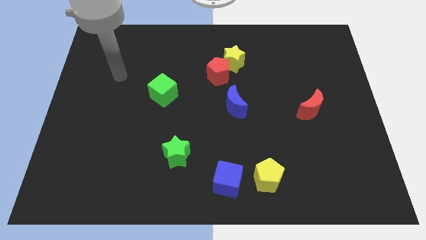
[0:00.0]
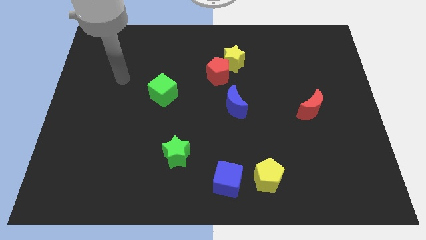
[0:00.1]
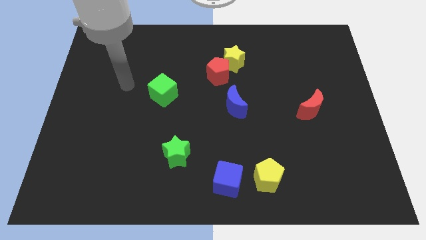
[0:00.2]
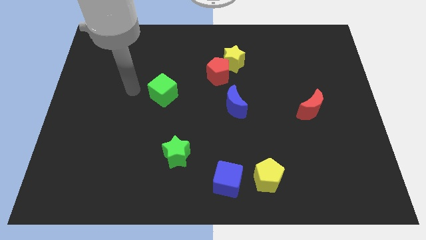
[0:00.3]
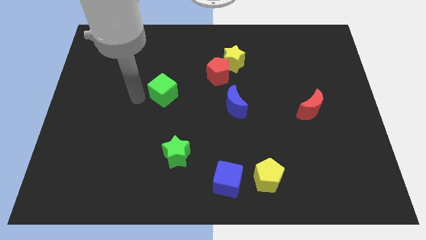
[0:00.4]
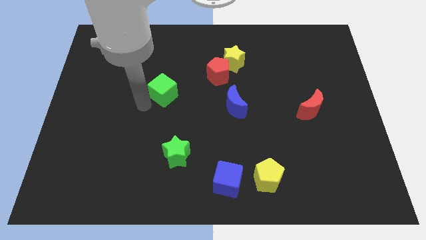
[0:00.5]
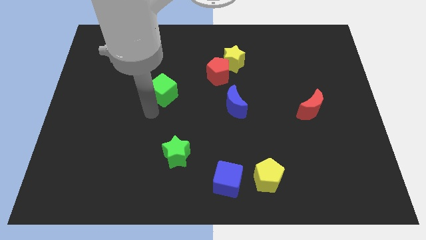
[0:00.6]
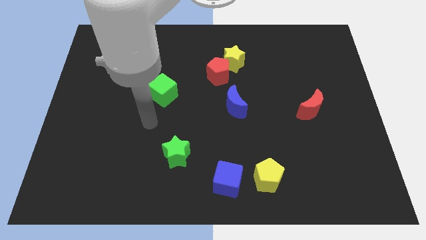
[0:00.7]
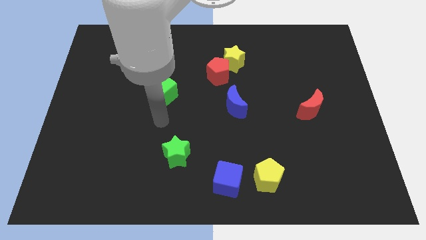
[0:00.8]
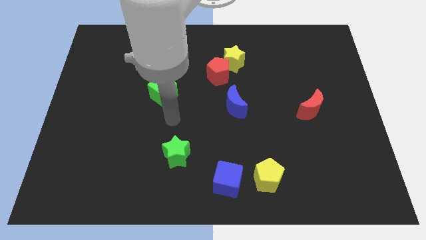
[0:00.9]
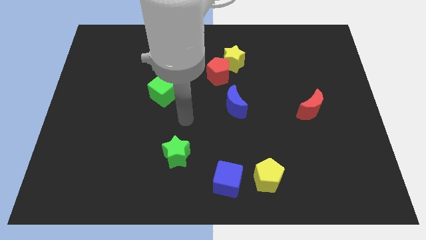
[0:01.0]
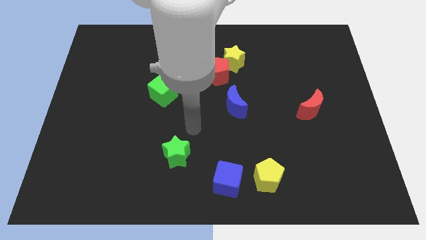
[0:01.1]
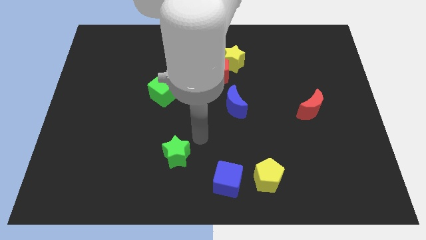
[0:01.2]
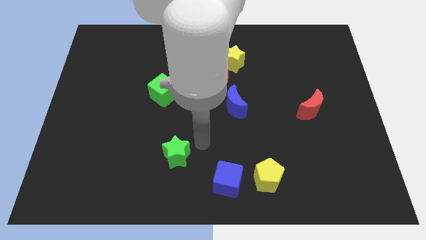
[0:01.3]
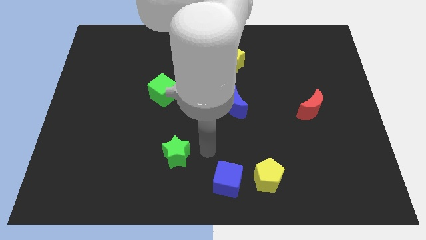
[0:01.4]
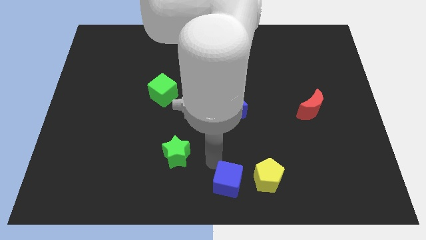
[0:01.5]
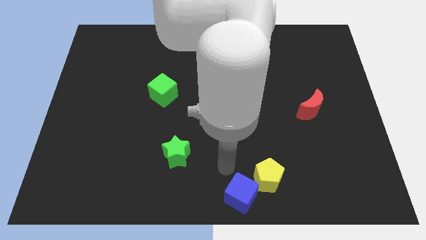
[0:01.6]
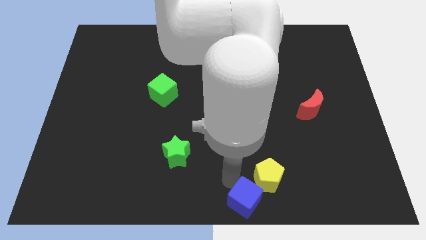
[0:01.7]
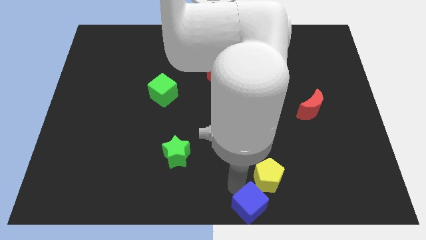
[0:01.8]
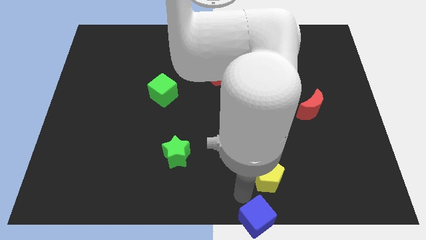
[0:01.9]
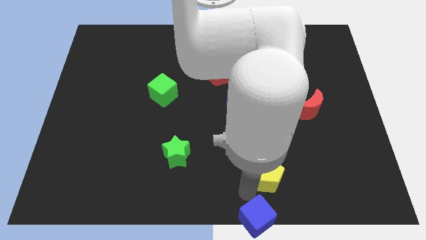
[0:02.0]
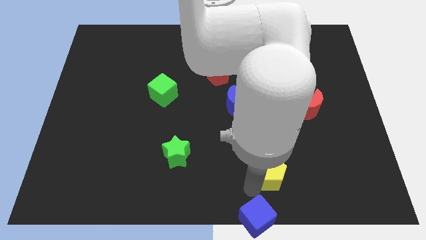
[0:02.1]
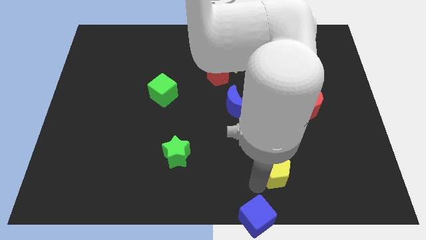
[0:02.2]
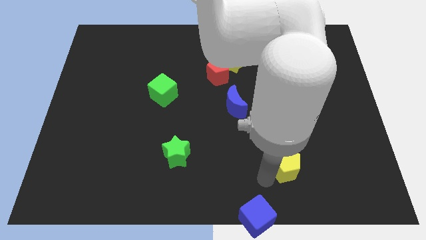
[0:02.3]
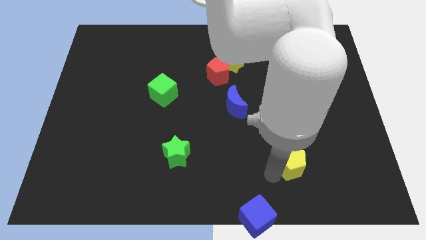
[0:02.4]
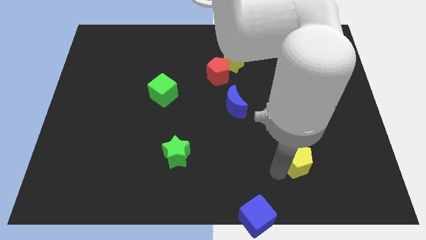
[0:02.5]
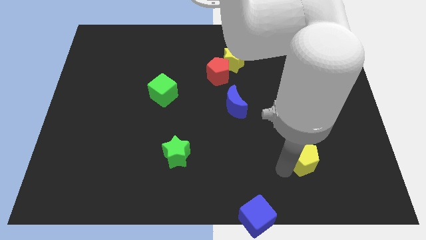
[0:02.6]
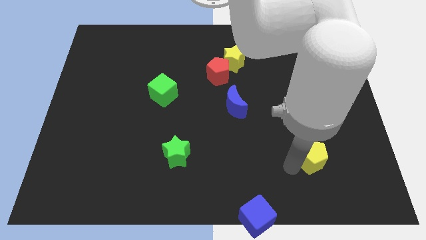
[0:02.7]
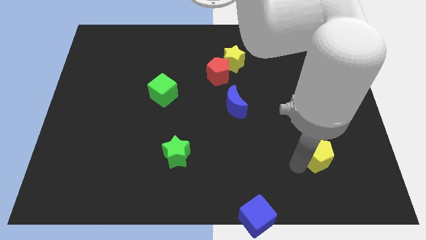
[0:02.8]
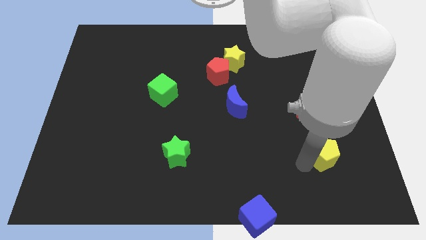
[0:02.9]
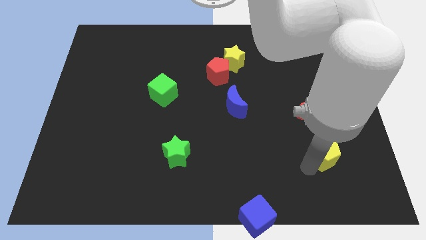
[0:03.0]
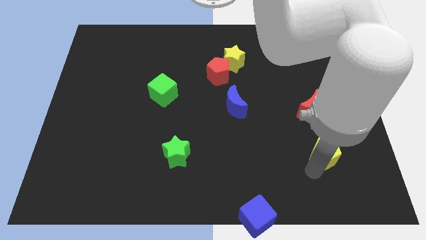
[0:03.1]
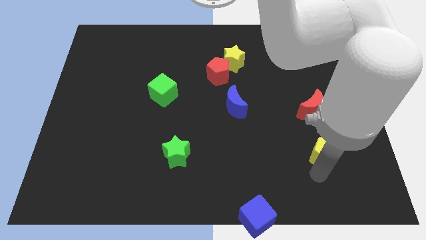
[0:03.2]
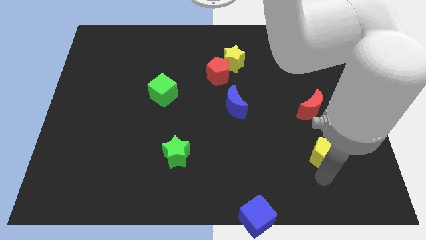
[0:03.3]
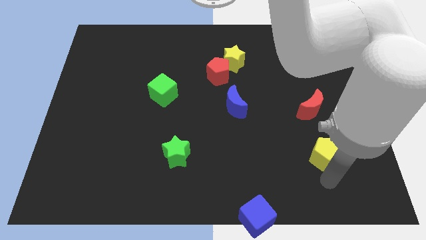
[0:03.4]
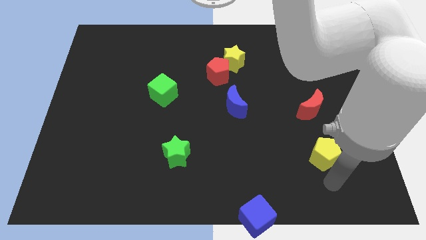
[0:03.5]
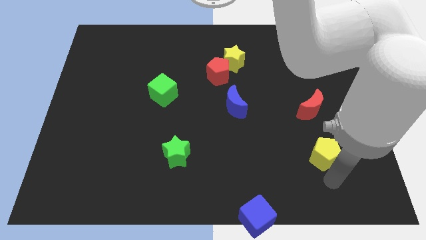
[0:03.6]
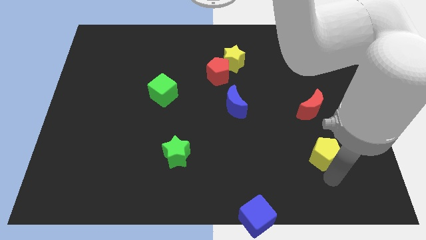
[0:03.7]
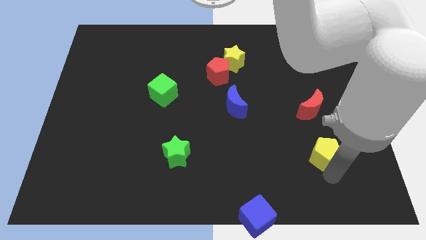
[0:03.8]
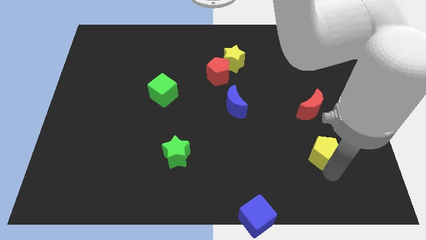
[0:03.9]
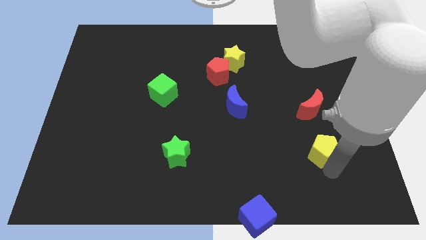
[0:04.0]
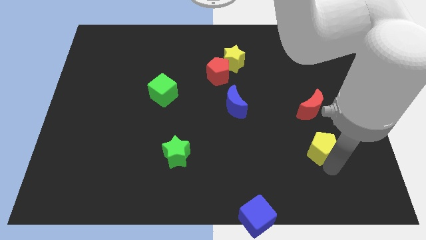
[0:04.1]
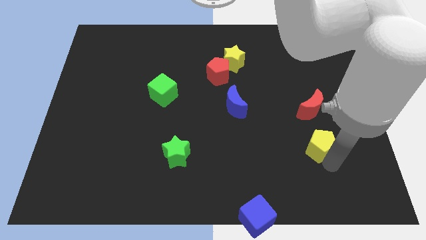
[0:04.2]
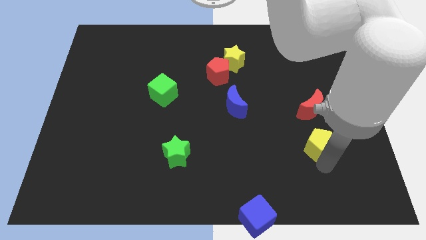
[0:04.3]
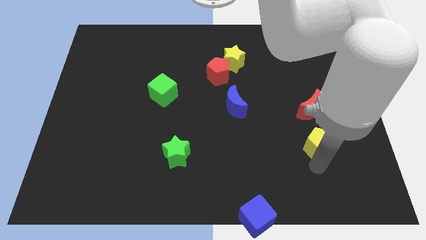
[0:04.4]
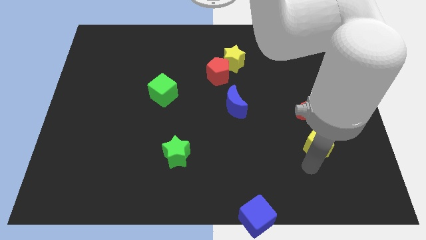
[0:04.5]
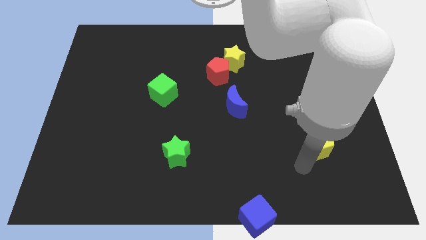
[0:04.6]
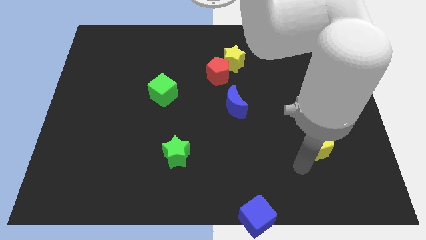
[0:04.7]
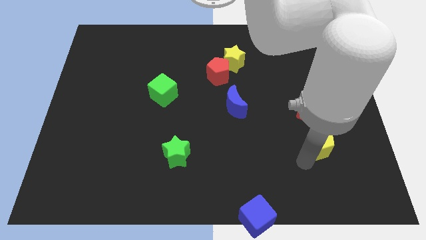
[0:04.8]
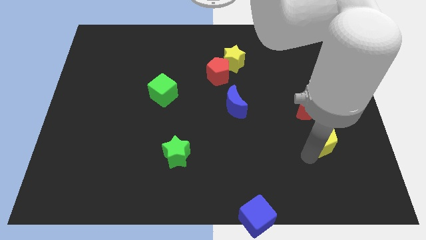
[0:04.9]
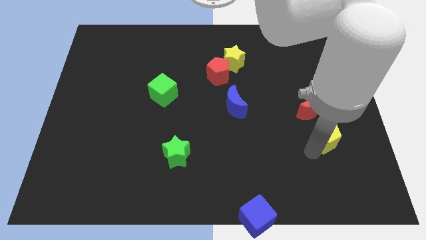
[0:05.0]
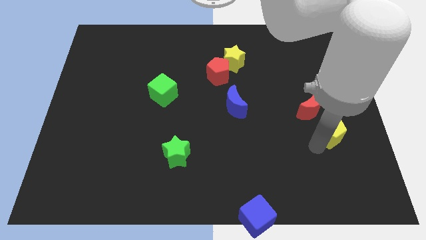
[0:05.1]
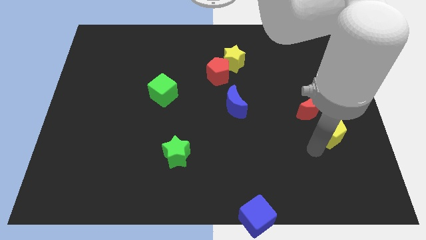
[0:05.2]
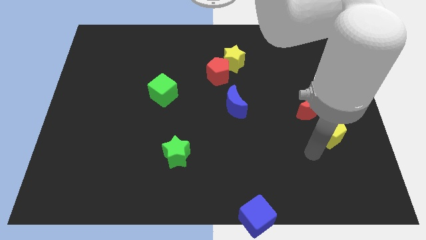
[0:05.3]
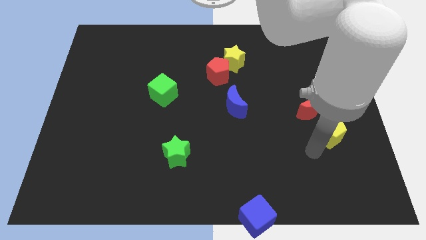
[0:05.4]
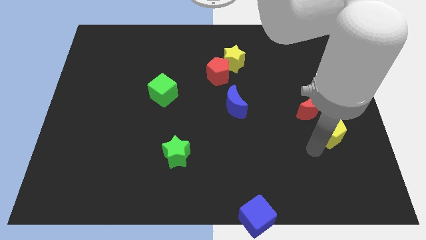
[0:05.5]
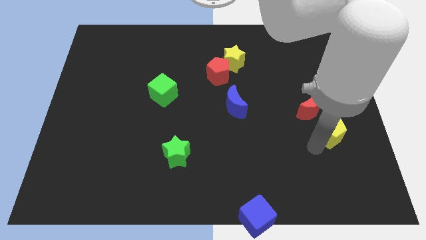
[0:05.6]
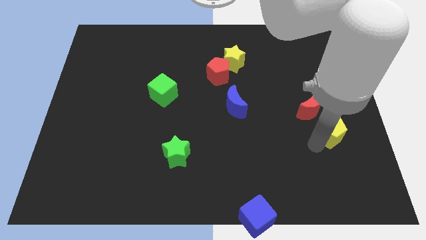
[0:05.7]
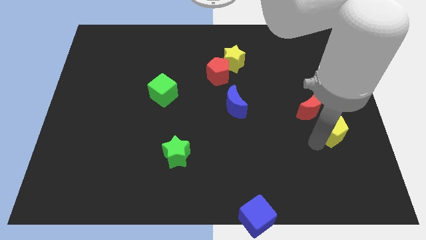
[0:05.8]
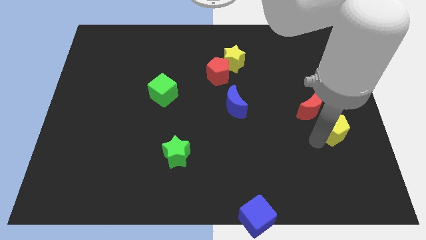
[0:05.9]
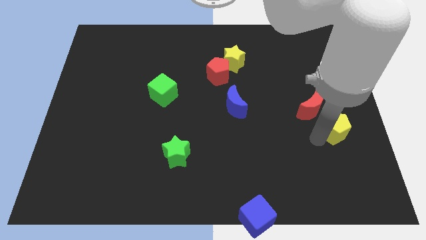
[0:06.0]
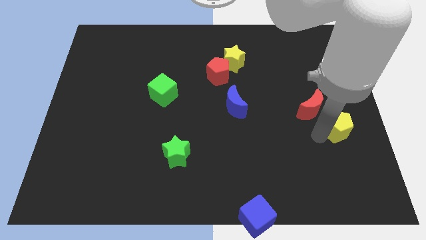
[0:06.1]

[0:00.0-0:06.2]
push the yellow pentagon to the center right
